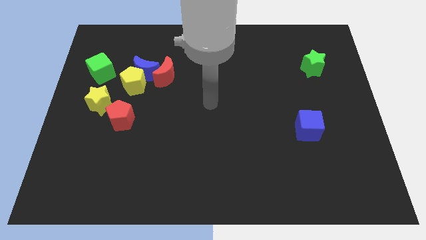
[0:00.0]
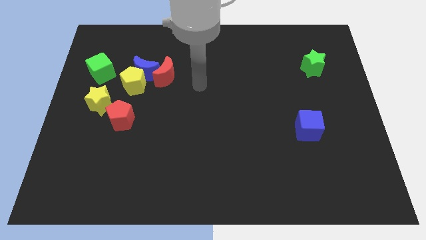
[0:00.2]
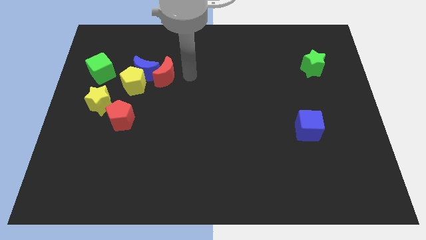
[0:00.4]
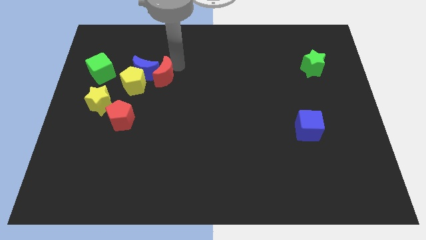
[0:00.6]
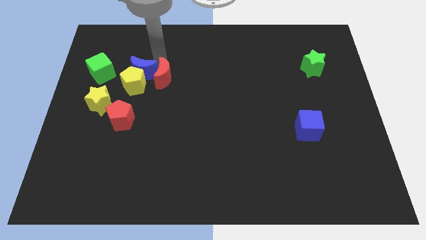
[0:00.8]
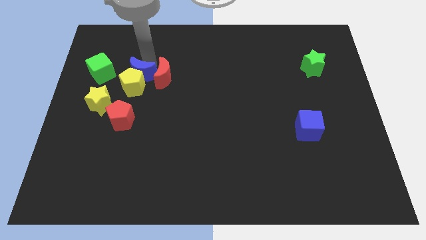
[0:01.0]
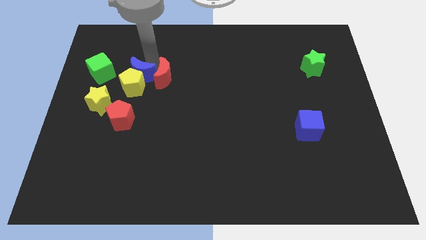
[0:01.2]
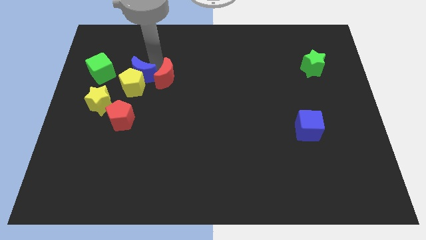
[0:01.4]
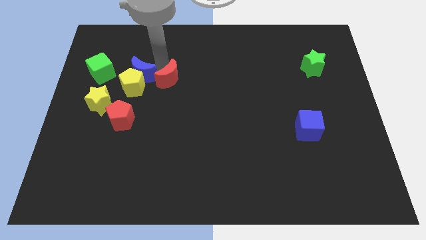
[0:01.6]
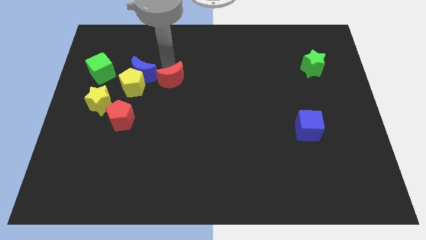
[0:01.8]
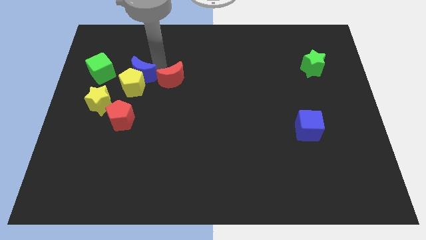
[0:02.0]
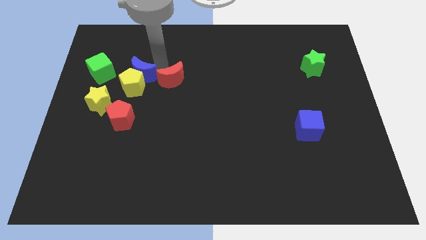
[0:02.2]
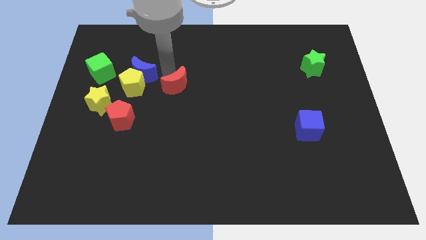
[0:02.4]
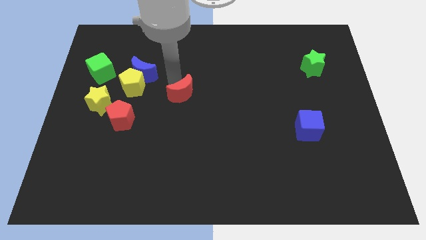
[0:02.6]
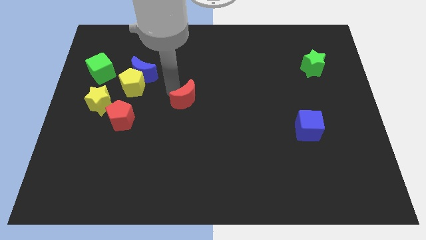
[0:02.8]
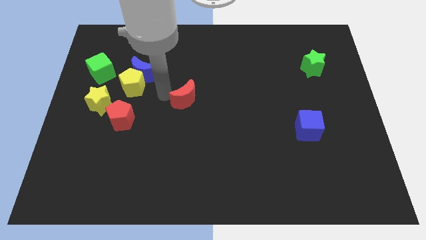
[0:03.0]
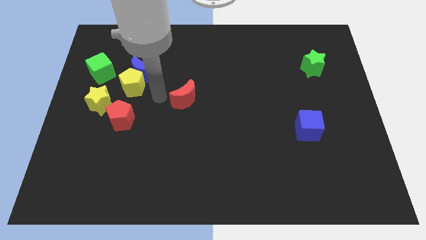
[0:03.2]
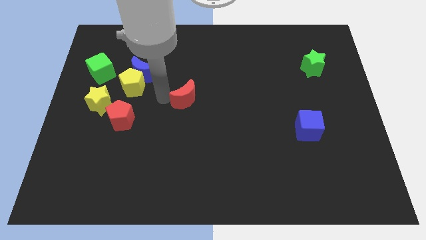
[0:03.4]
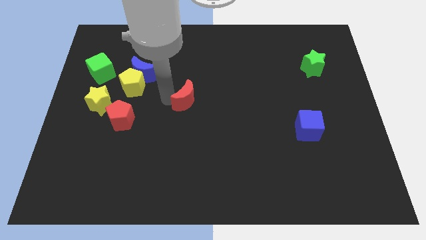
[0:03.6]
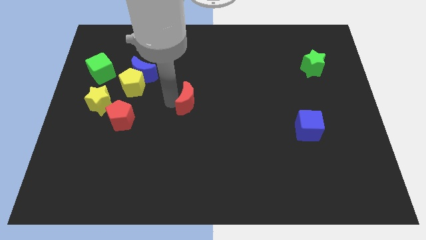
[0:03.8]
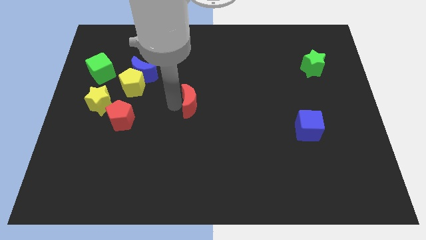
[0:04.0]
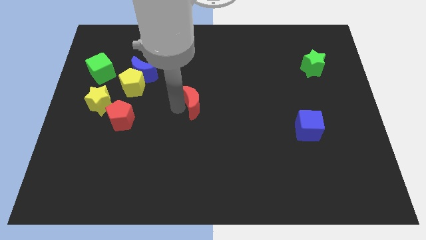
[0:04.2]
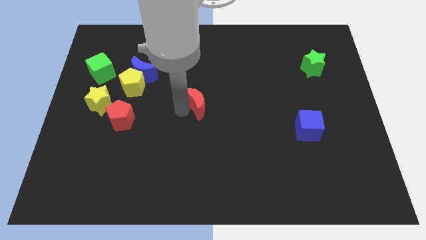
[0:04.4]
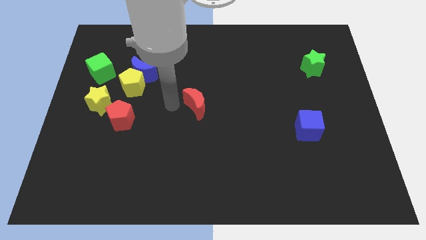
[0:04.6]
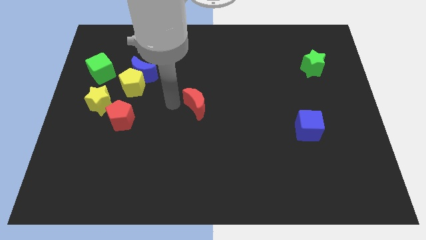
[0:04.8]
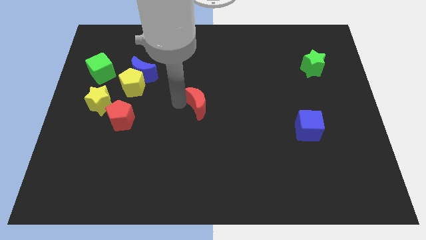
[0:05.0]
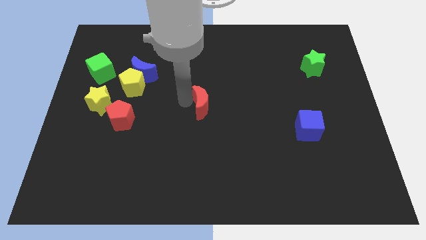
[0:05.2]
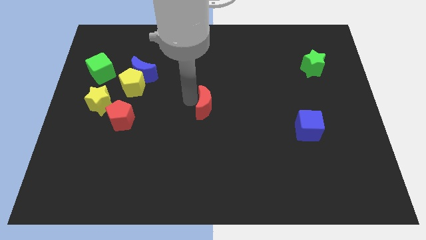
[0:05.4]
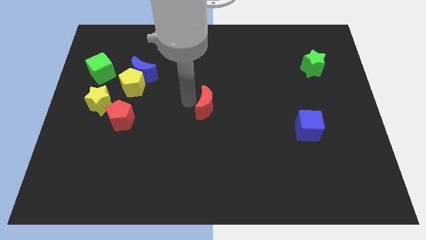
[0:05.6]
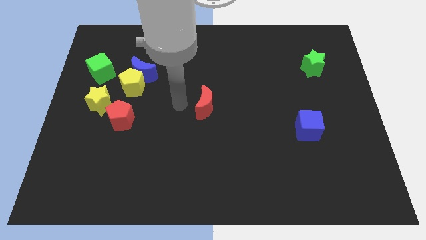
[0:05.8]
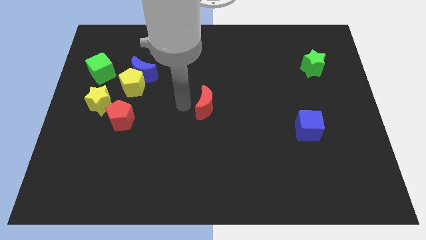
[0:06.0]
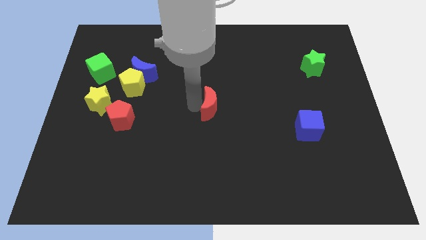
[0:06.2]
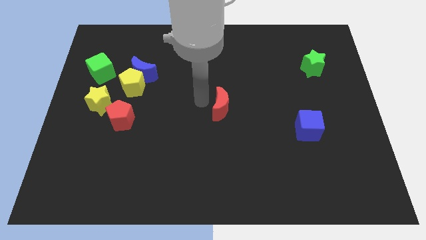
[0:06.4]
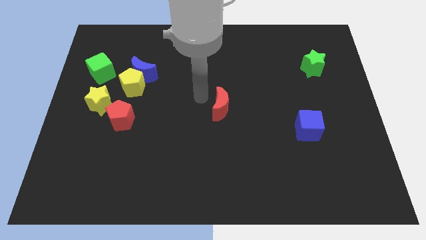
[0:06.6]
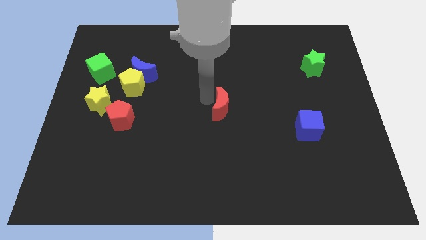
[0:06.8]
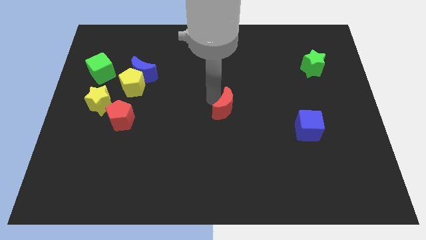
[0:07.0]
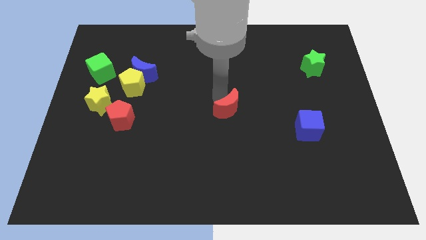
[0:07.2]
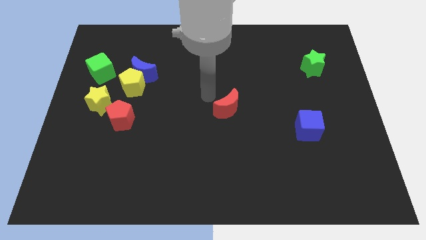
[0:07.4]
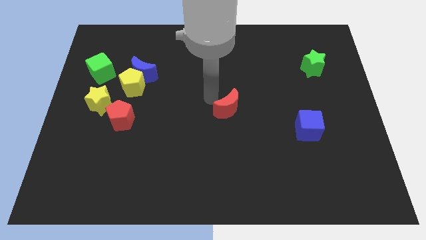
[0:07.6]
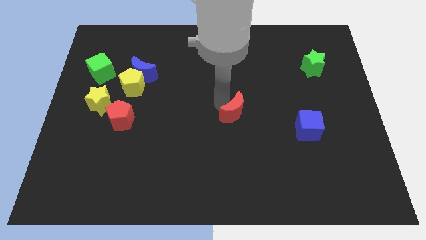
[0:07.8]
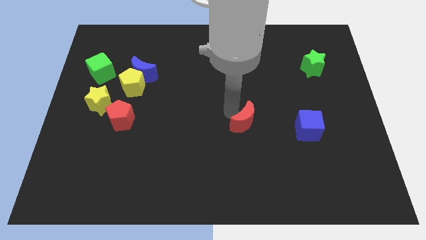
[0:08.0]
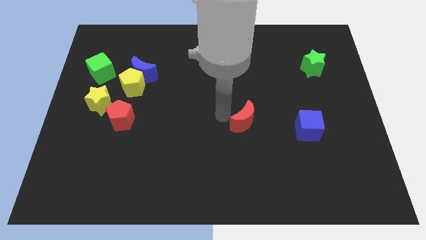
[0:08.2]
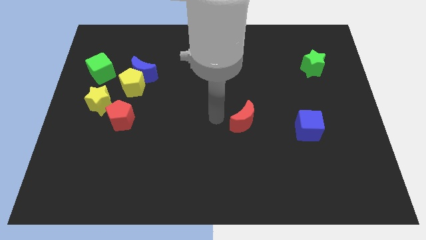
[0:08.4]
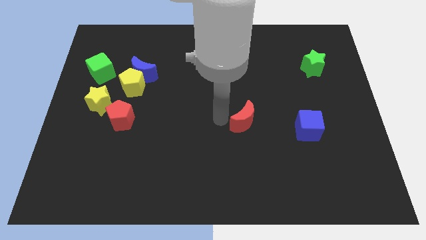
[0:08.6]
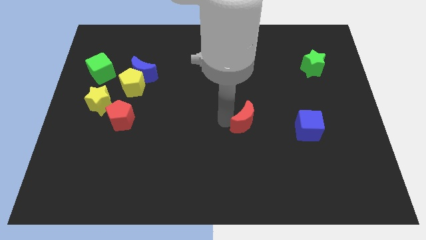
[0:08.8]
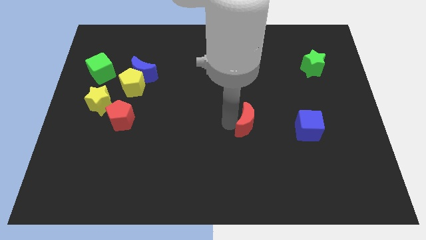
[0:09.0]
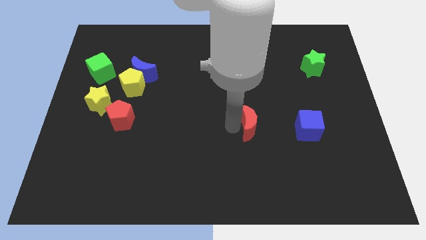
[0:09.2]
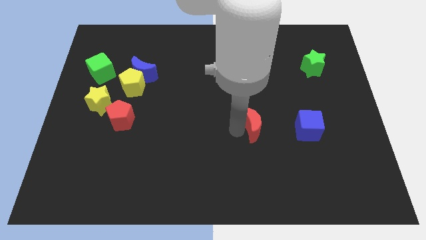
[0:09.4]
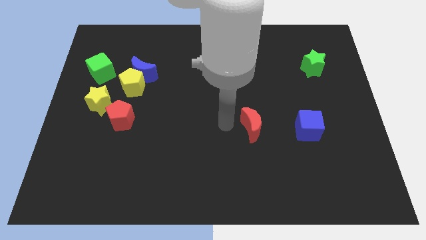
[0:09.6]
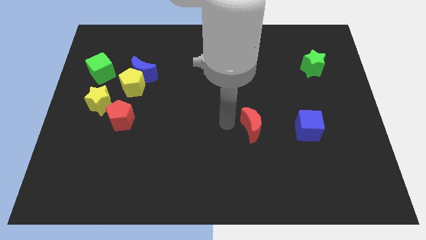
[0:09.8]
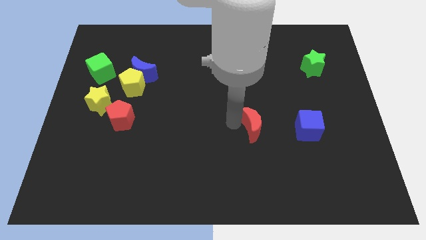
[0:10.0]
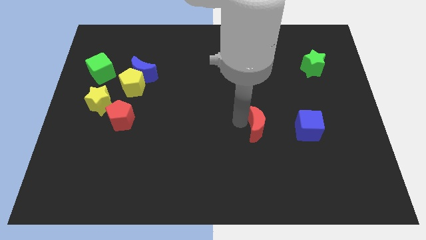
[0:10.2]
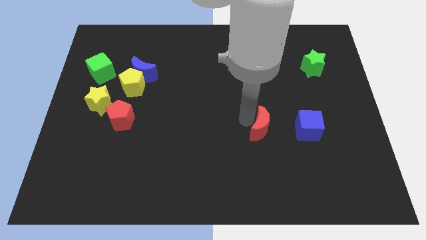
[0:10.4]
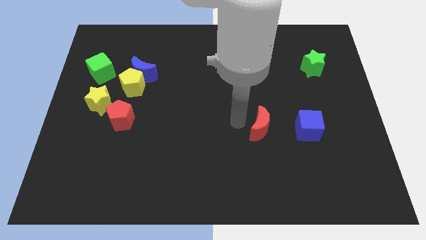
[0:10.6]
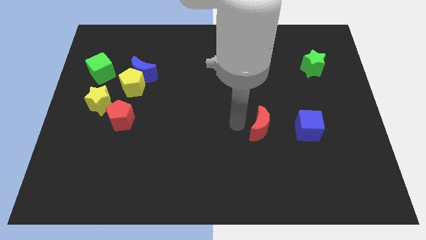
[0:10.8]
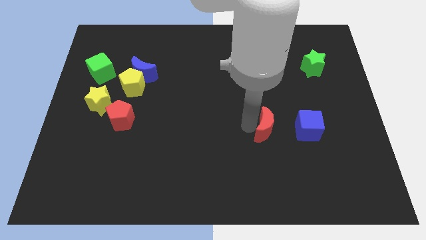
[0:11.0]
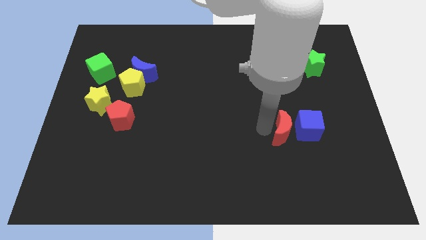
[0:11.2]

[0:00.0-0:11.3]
put the red moon towards the blue cube

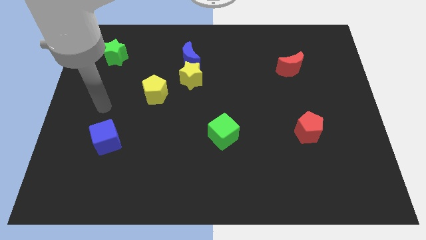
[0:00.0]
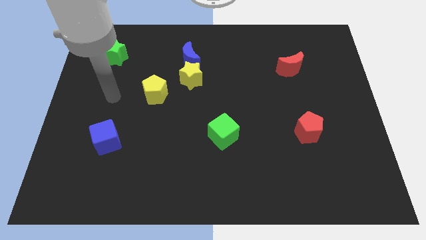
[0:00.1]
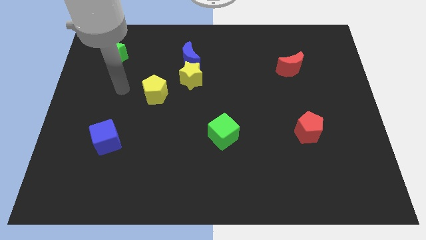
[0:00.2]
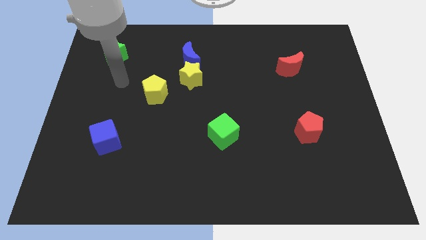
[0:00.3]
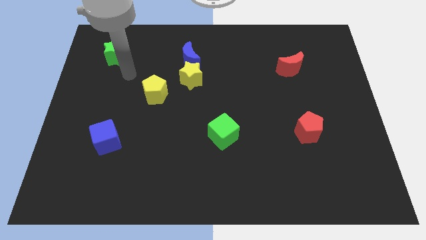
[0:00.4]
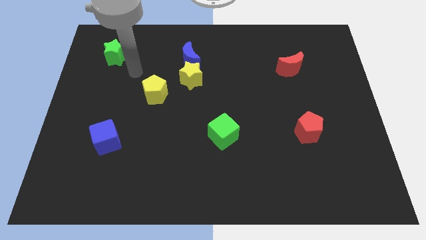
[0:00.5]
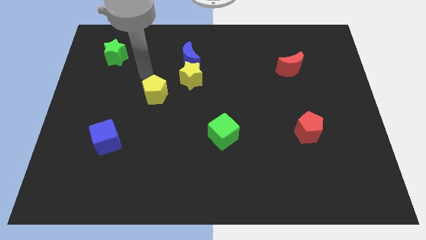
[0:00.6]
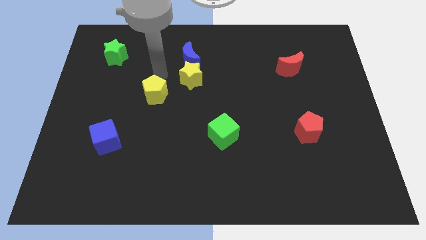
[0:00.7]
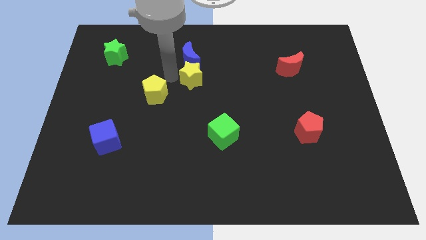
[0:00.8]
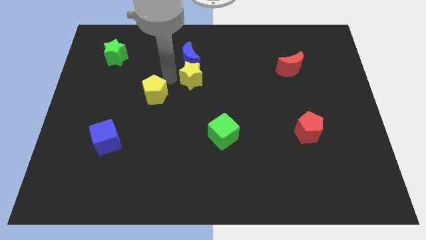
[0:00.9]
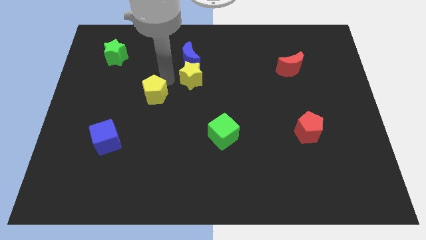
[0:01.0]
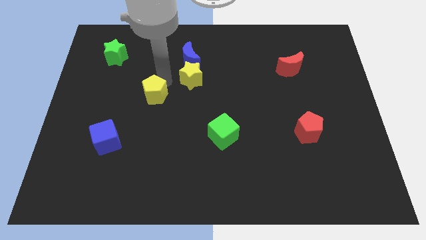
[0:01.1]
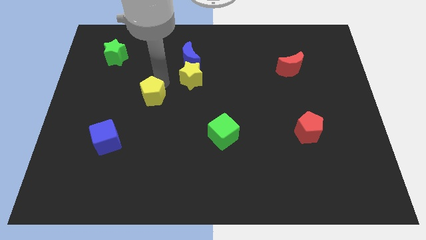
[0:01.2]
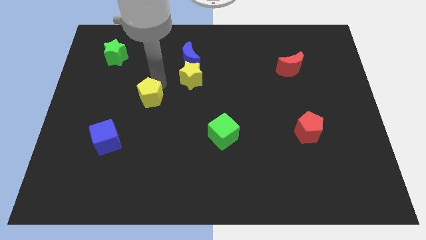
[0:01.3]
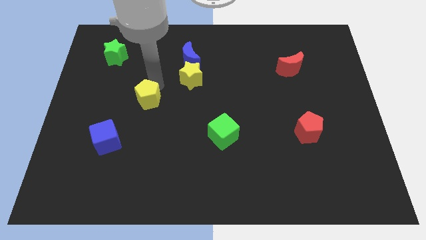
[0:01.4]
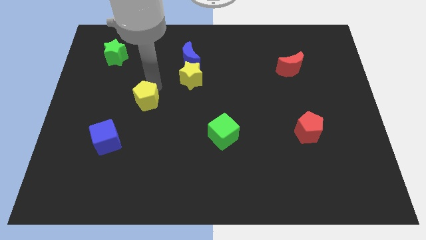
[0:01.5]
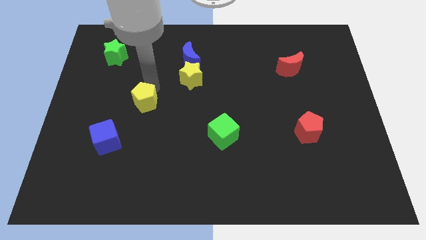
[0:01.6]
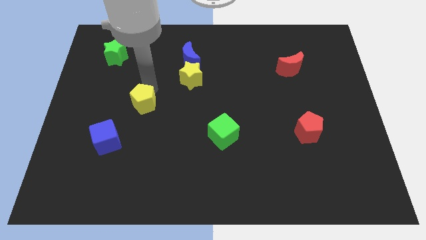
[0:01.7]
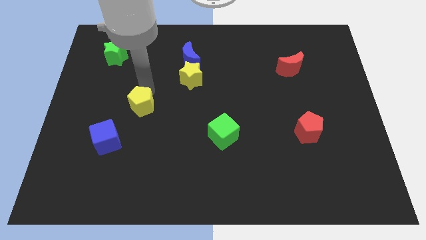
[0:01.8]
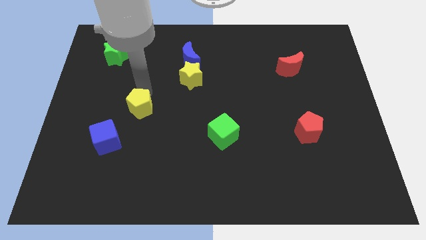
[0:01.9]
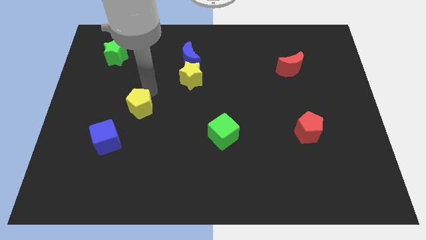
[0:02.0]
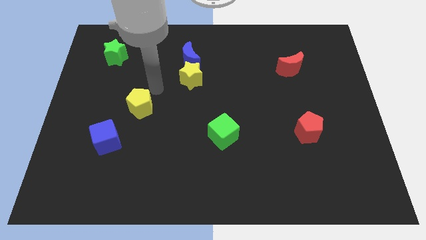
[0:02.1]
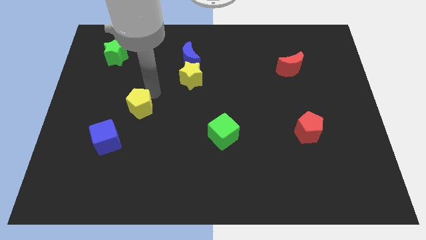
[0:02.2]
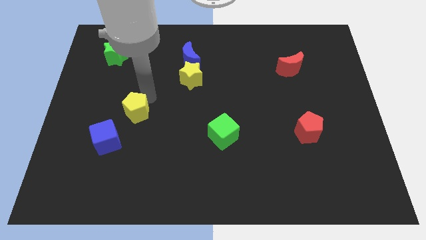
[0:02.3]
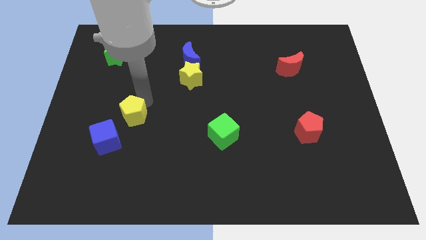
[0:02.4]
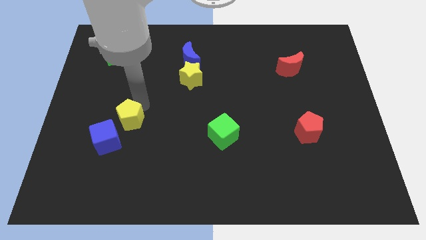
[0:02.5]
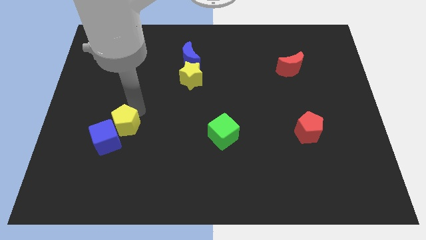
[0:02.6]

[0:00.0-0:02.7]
move the yellow pentagon next to the blue cube
